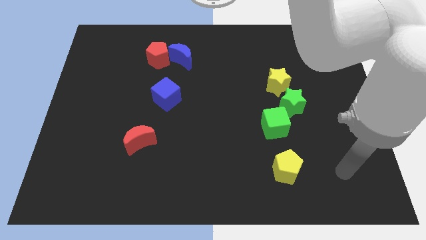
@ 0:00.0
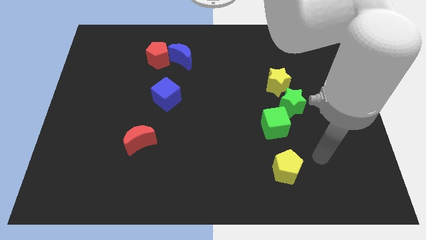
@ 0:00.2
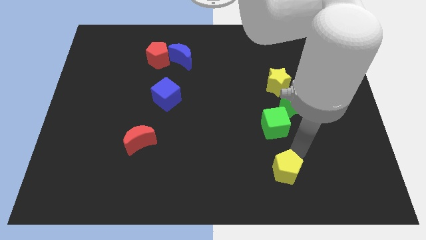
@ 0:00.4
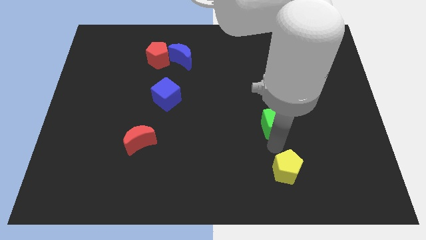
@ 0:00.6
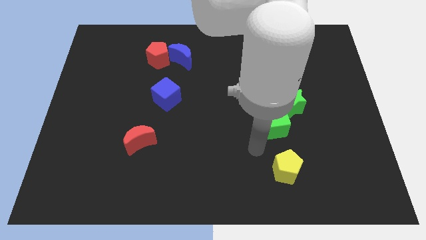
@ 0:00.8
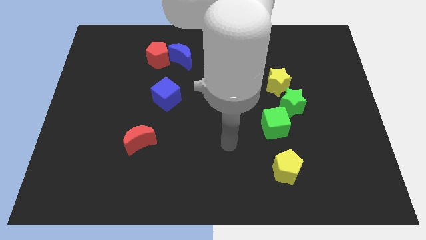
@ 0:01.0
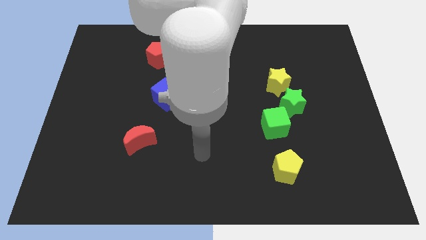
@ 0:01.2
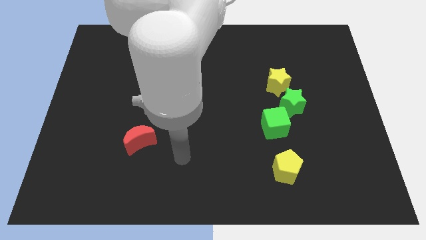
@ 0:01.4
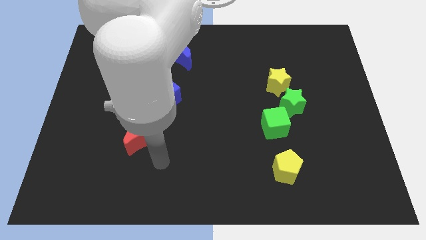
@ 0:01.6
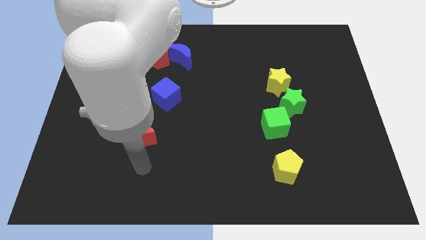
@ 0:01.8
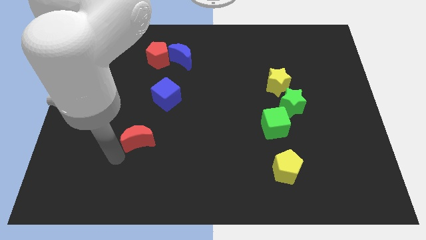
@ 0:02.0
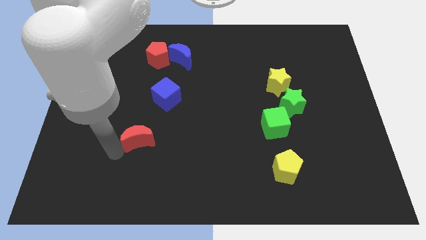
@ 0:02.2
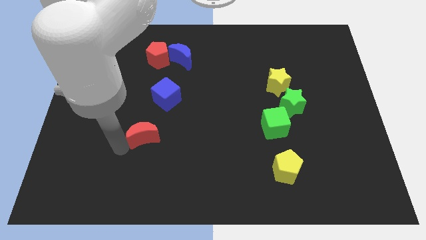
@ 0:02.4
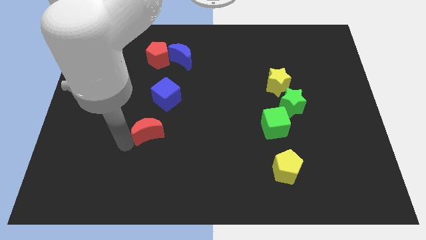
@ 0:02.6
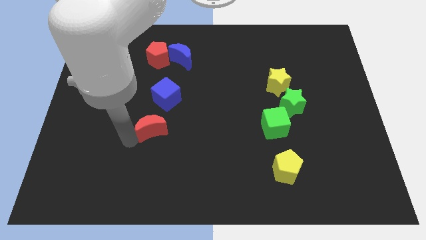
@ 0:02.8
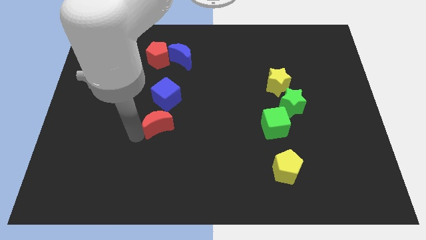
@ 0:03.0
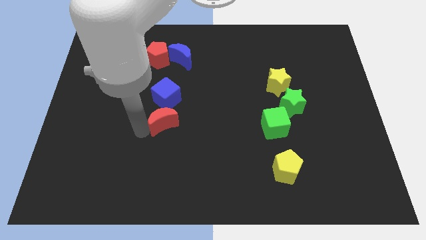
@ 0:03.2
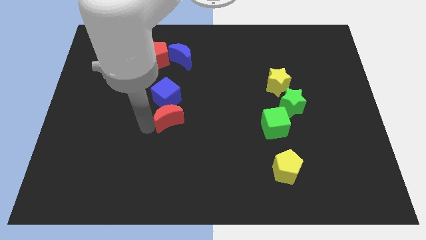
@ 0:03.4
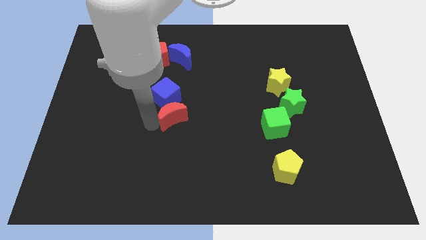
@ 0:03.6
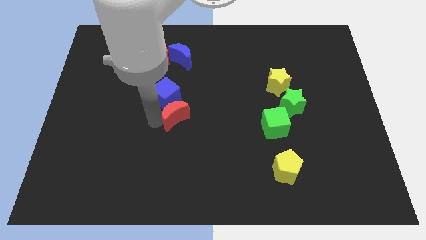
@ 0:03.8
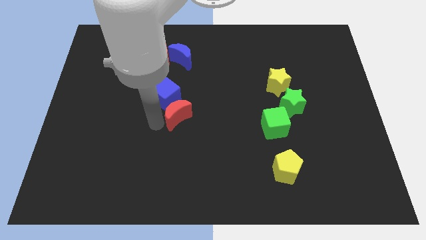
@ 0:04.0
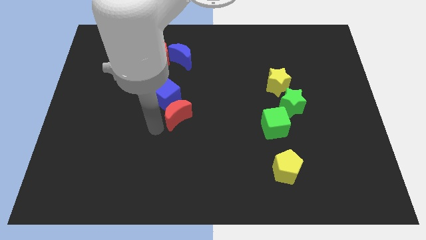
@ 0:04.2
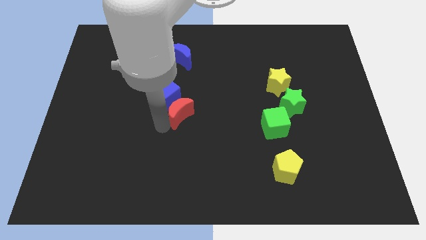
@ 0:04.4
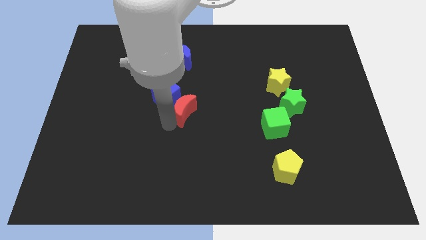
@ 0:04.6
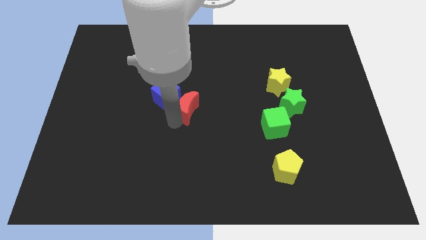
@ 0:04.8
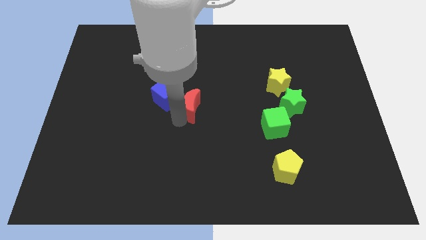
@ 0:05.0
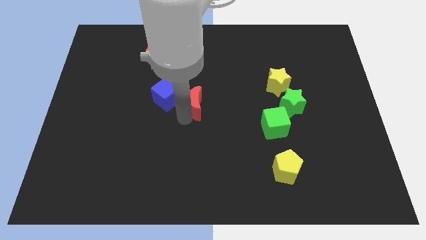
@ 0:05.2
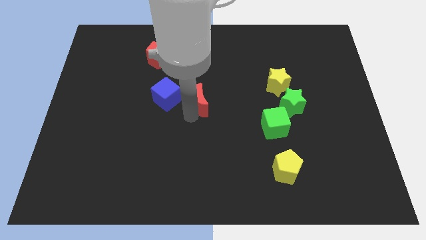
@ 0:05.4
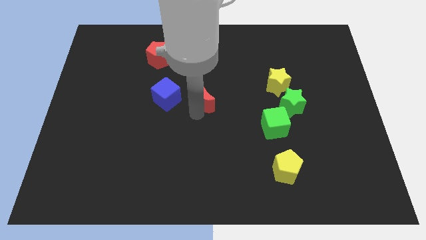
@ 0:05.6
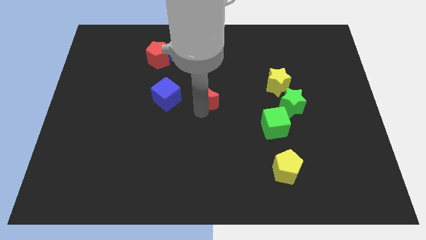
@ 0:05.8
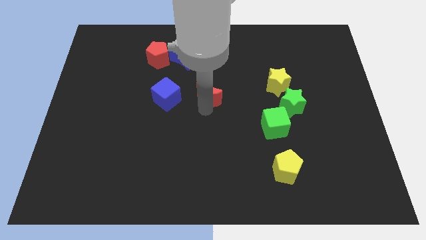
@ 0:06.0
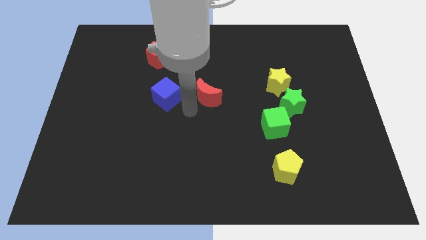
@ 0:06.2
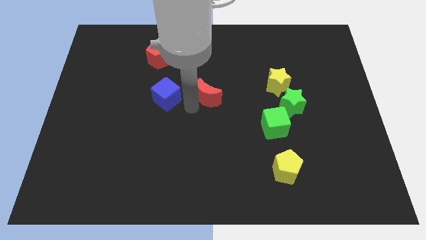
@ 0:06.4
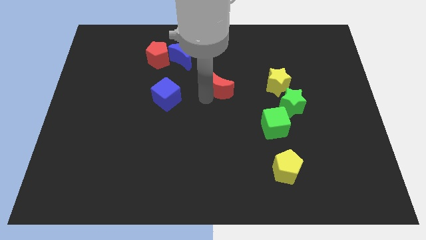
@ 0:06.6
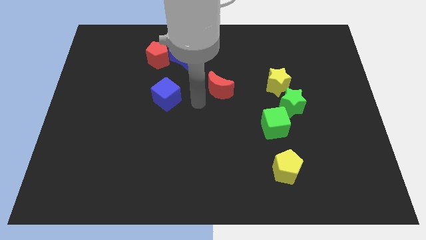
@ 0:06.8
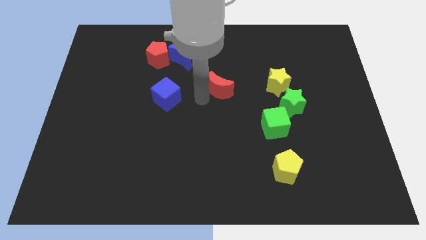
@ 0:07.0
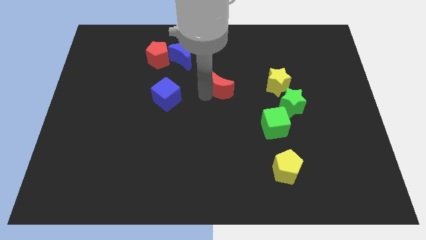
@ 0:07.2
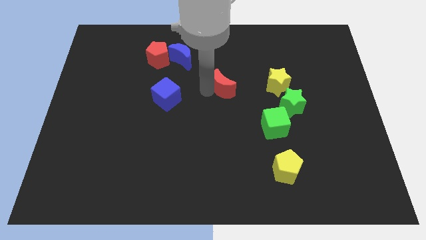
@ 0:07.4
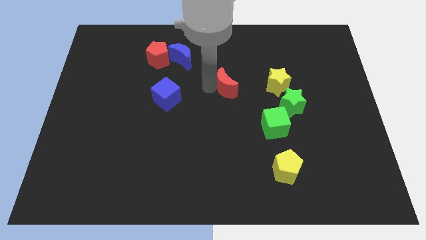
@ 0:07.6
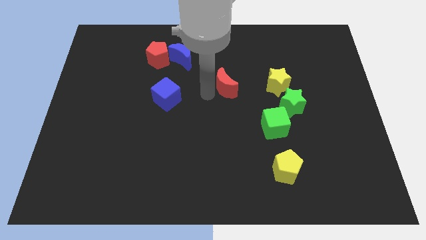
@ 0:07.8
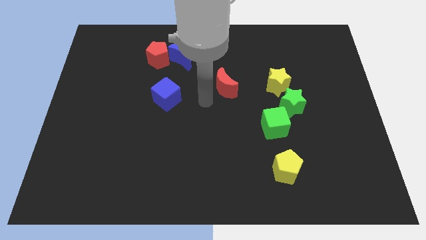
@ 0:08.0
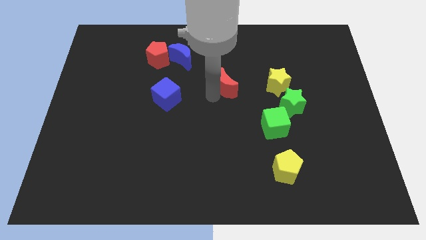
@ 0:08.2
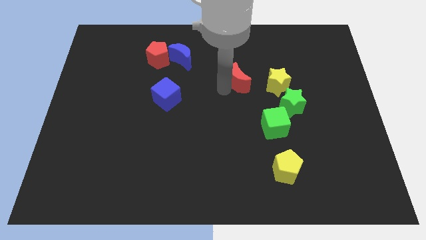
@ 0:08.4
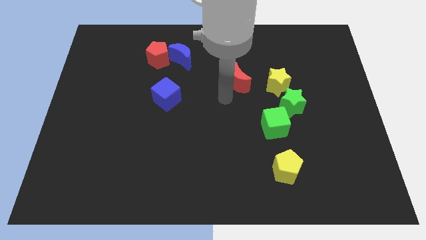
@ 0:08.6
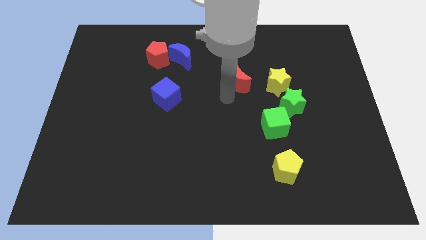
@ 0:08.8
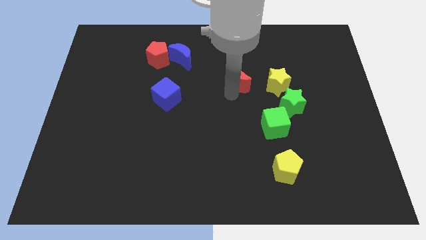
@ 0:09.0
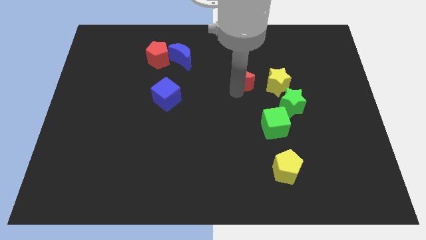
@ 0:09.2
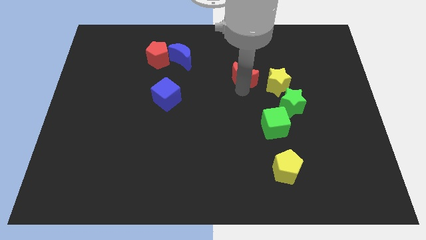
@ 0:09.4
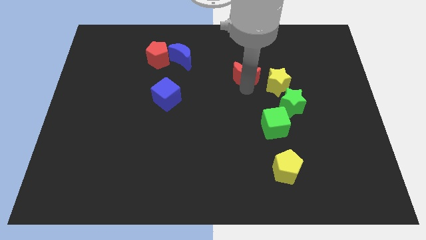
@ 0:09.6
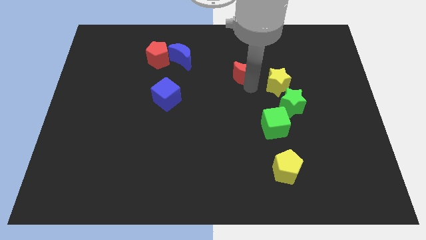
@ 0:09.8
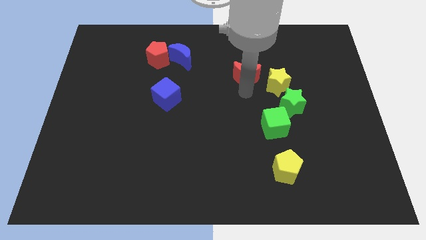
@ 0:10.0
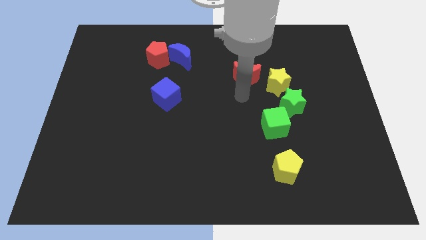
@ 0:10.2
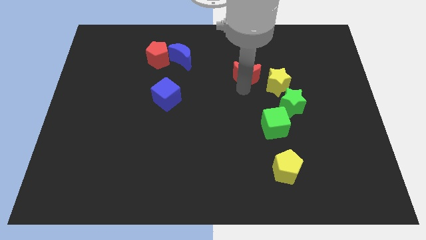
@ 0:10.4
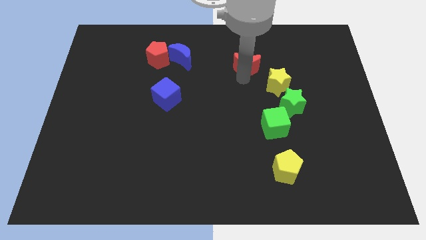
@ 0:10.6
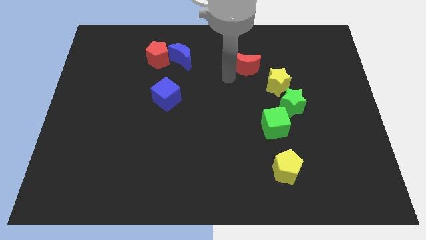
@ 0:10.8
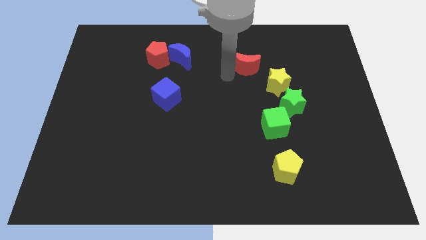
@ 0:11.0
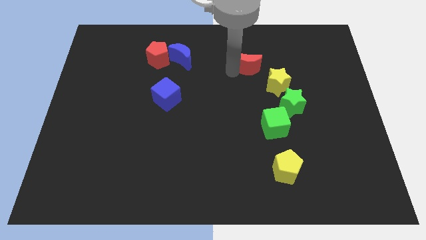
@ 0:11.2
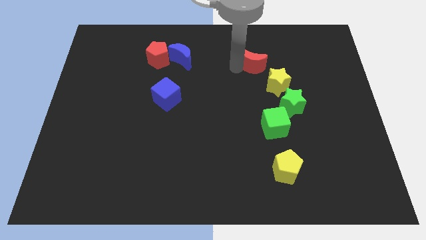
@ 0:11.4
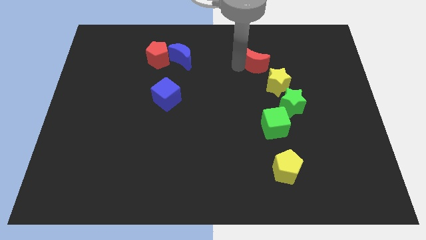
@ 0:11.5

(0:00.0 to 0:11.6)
push the red moon to the top side of the yellow star

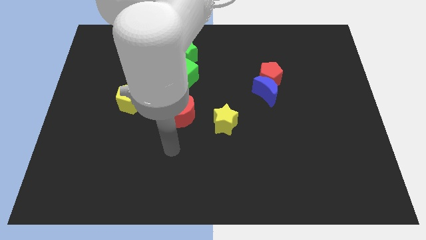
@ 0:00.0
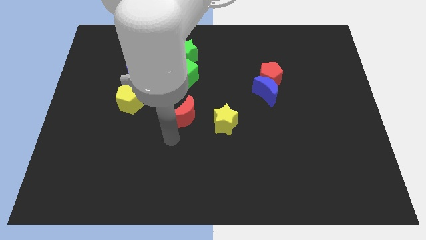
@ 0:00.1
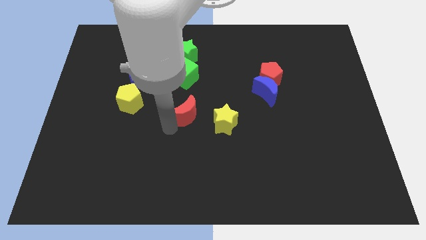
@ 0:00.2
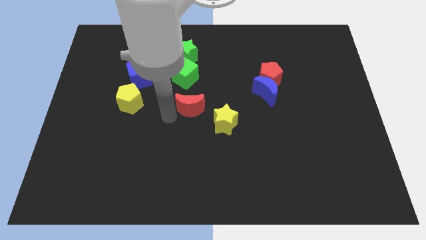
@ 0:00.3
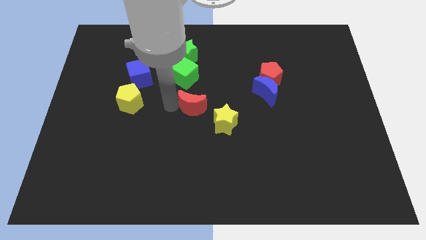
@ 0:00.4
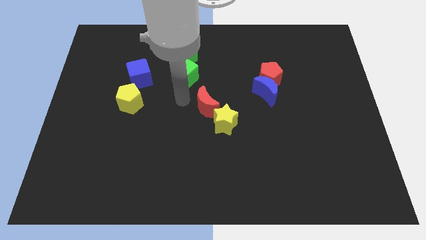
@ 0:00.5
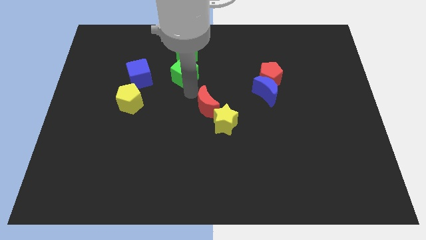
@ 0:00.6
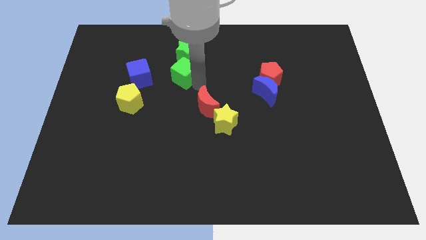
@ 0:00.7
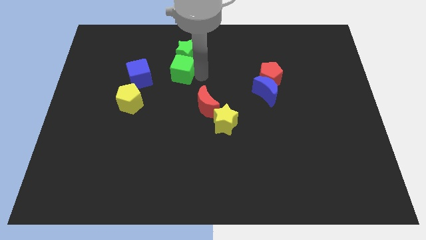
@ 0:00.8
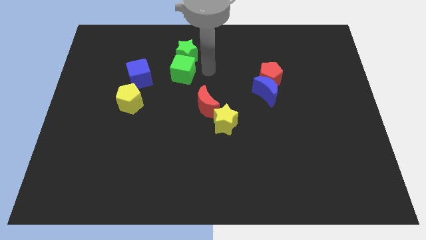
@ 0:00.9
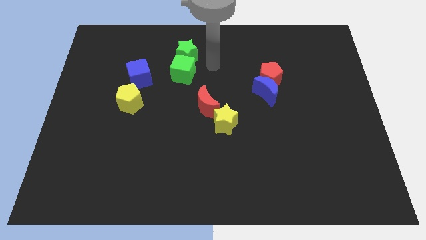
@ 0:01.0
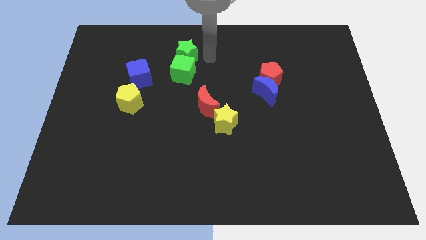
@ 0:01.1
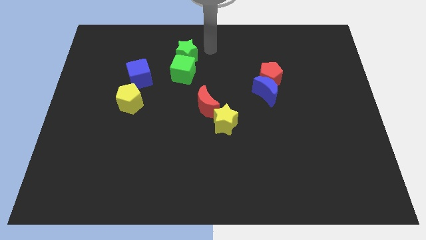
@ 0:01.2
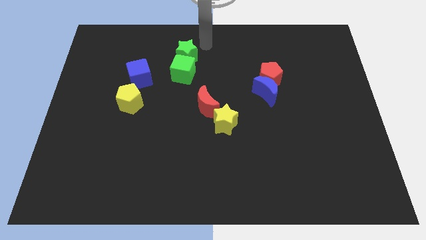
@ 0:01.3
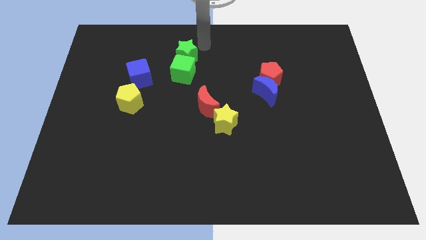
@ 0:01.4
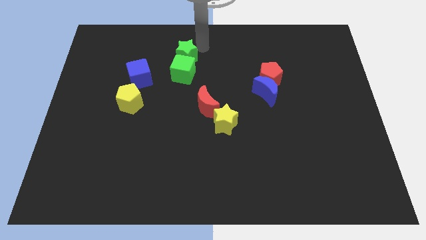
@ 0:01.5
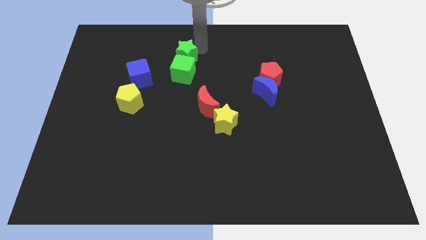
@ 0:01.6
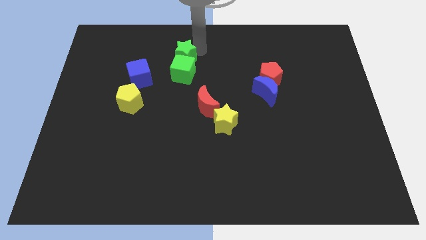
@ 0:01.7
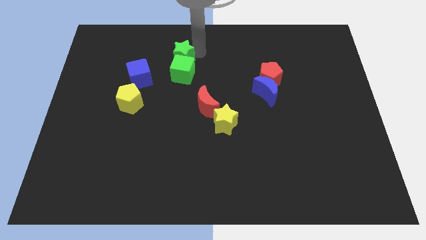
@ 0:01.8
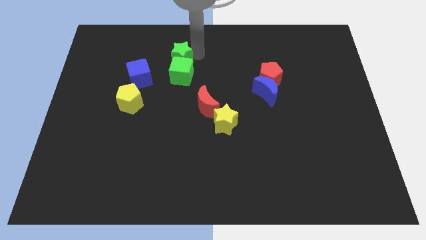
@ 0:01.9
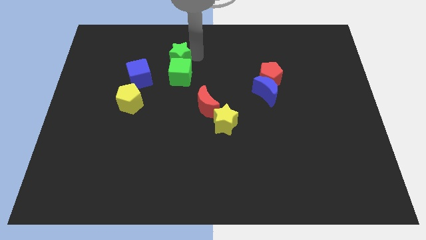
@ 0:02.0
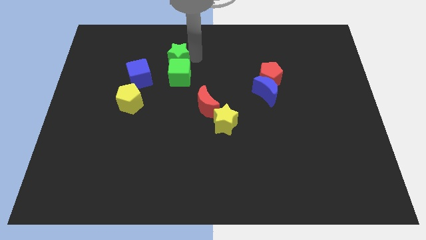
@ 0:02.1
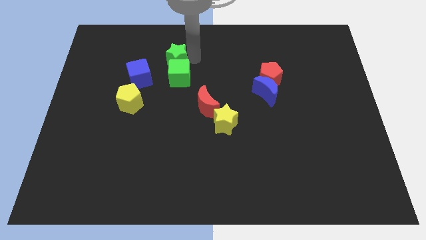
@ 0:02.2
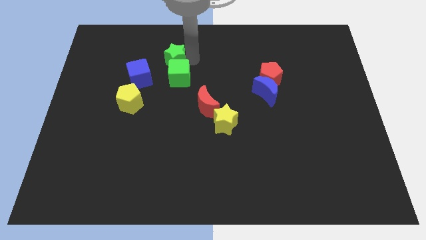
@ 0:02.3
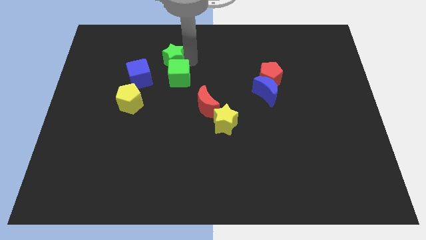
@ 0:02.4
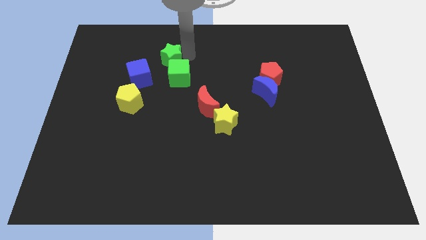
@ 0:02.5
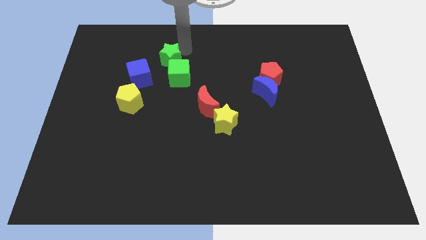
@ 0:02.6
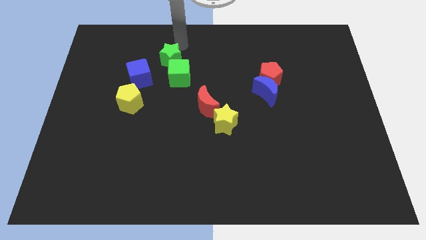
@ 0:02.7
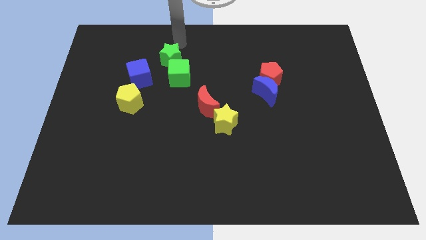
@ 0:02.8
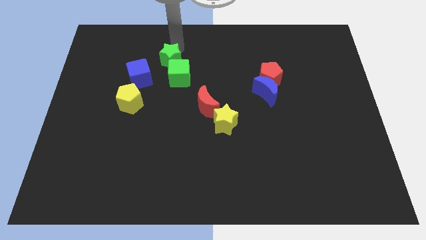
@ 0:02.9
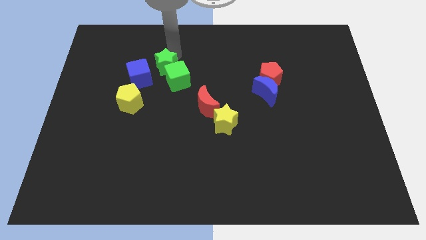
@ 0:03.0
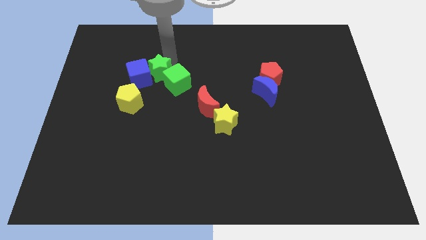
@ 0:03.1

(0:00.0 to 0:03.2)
move the green star diagonally down and to the right of the blue cube
